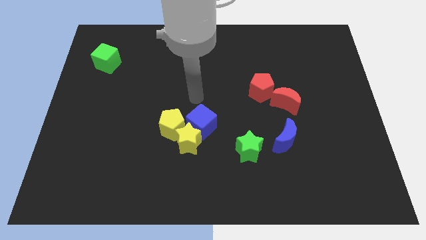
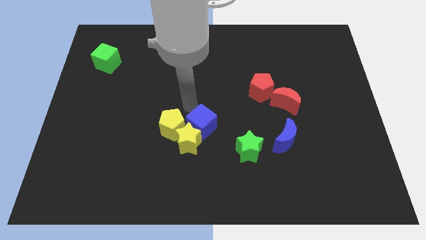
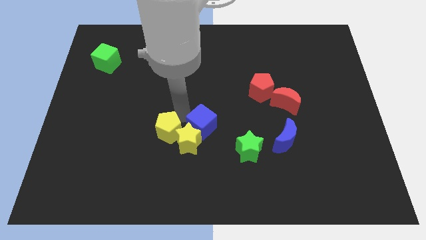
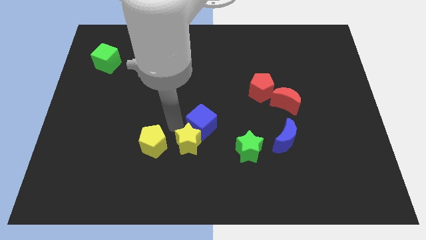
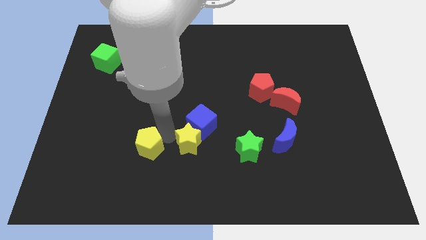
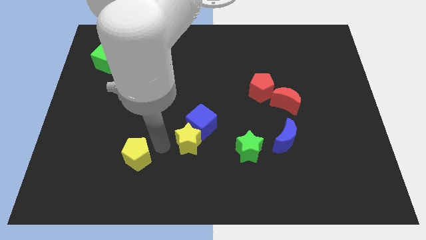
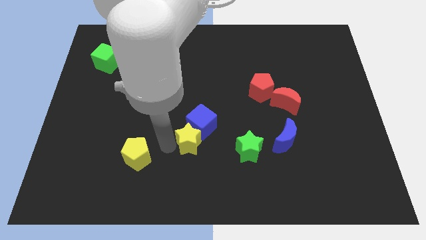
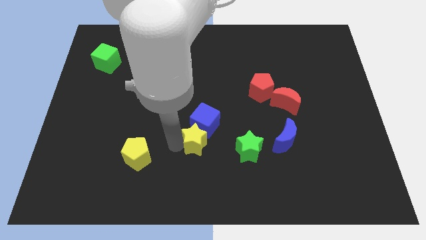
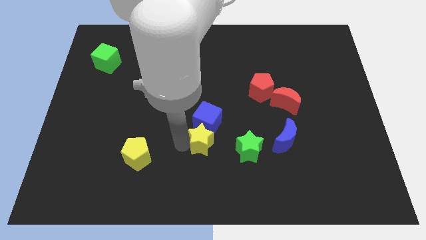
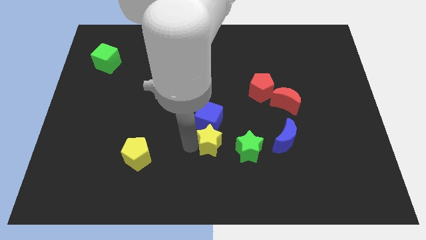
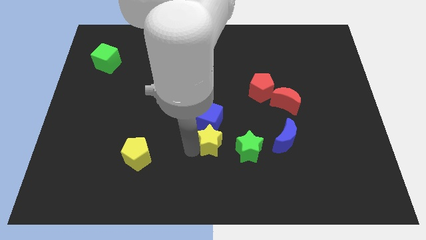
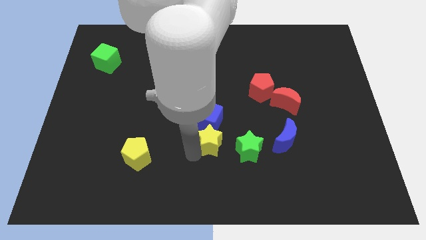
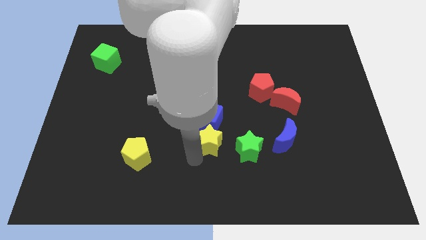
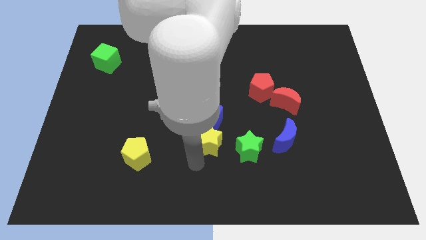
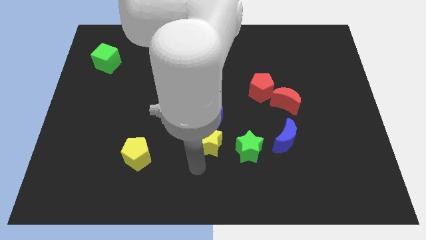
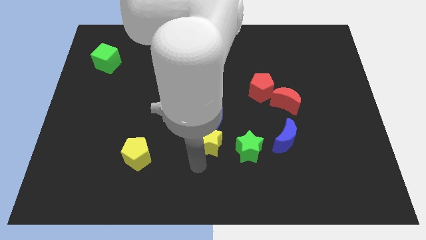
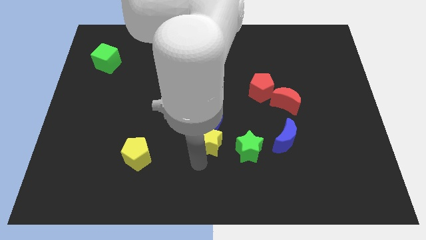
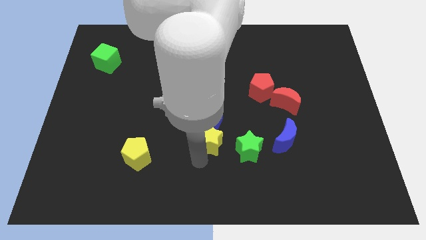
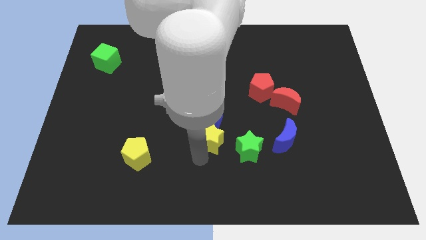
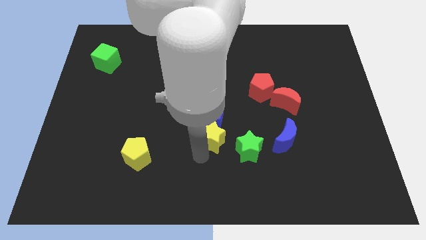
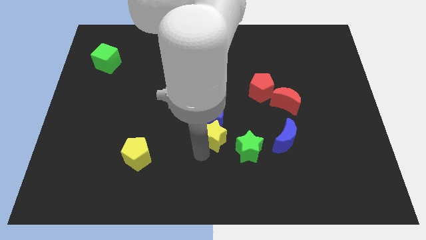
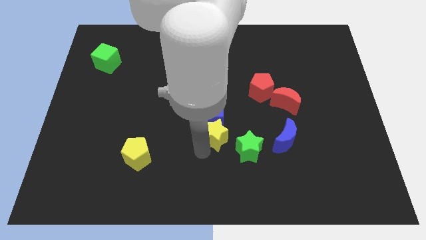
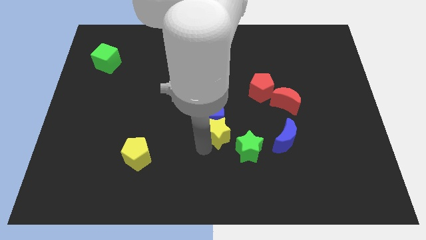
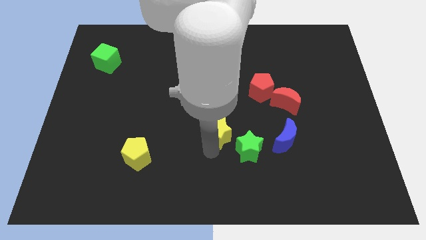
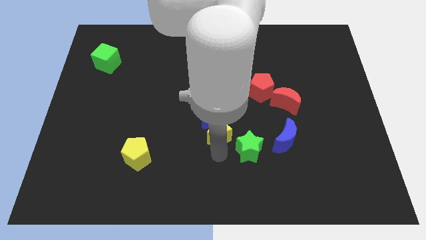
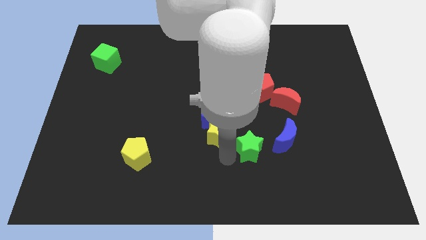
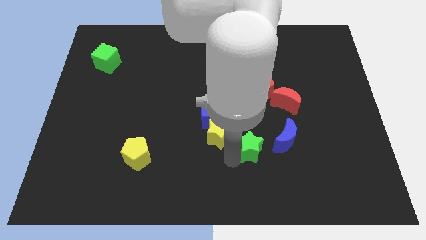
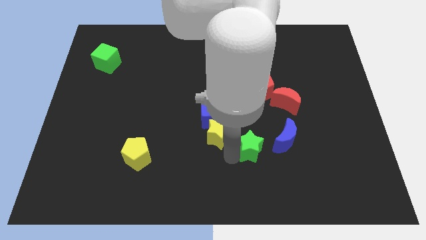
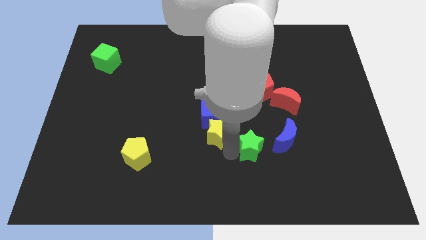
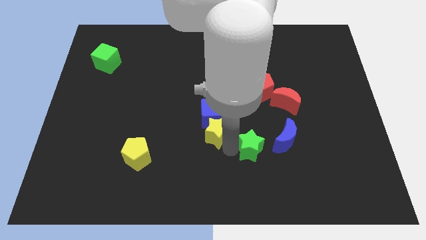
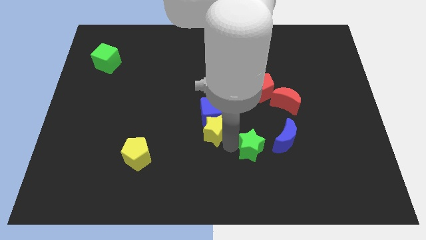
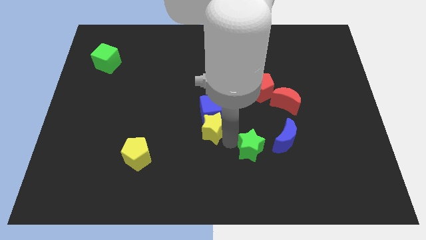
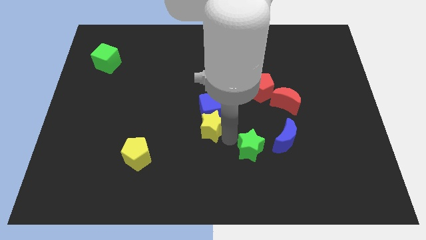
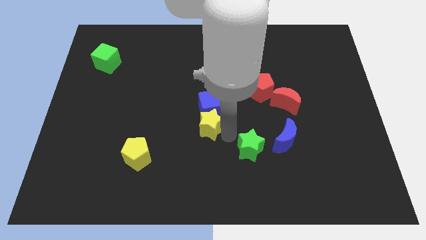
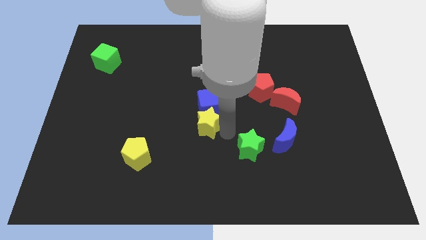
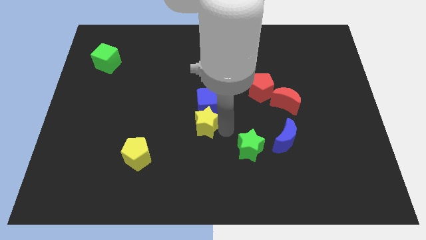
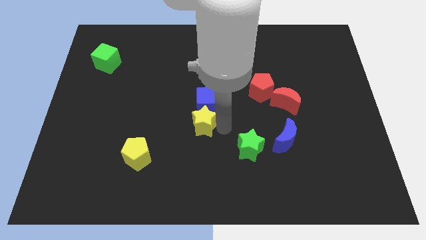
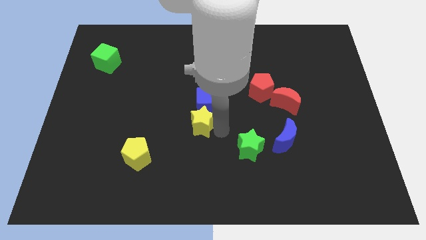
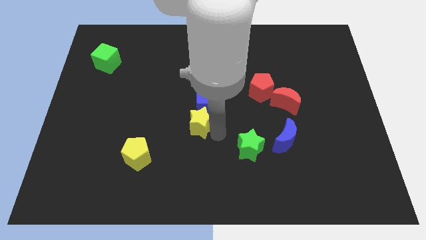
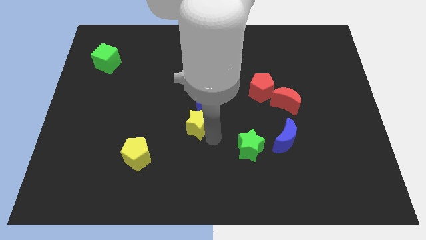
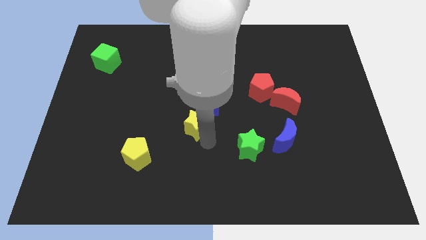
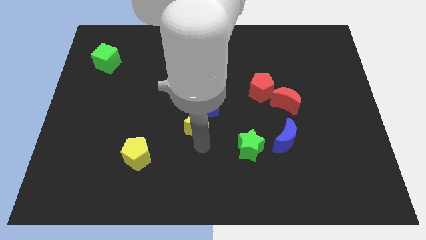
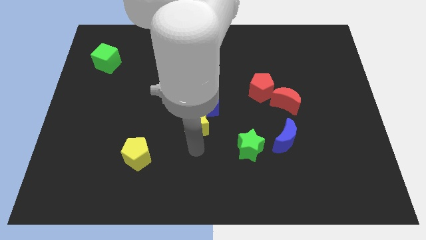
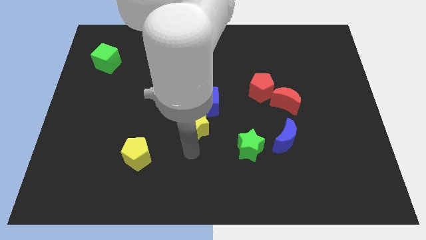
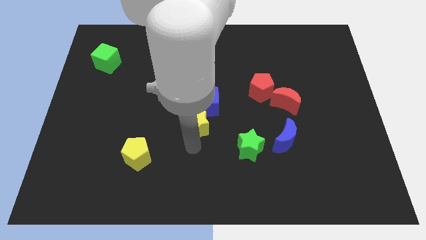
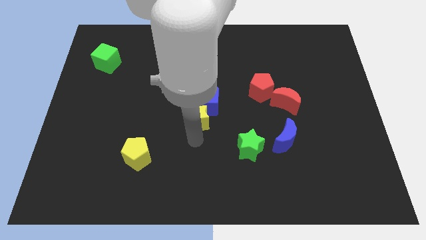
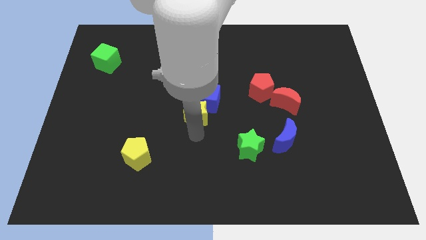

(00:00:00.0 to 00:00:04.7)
move the yellow star slightly up

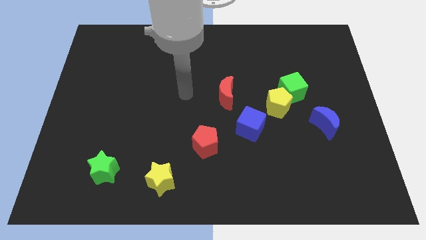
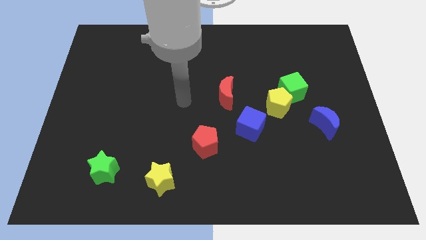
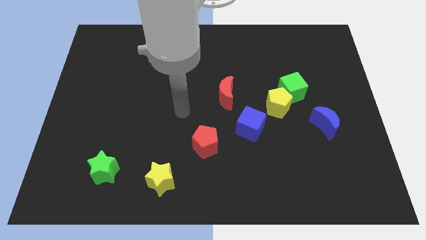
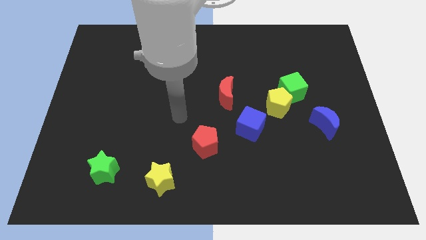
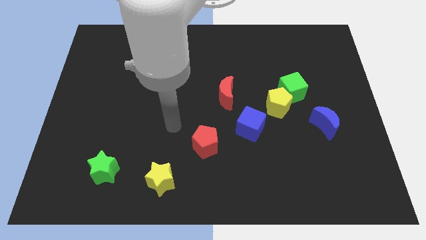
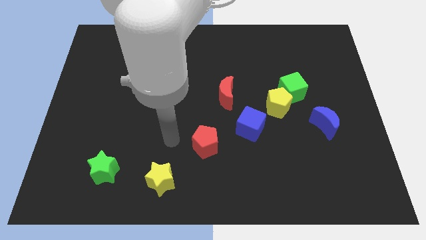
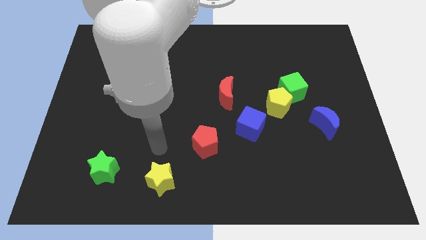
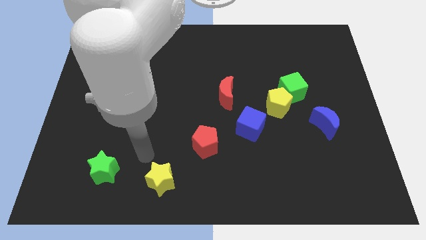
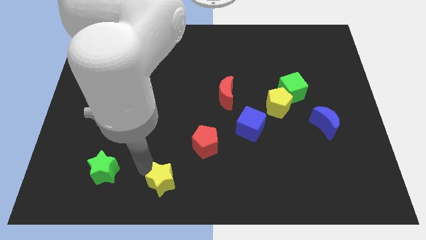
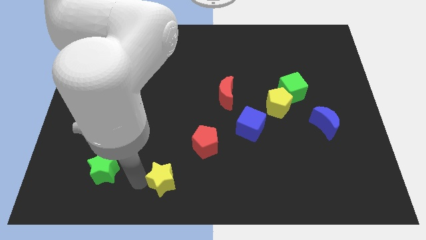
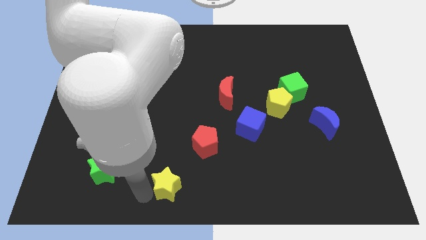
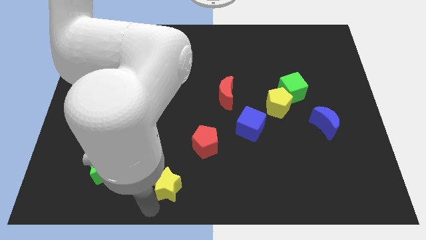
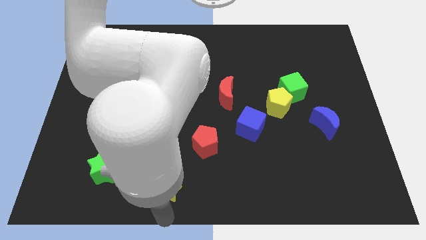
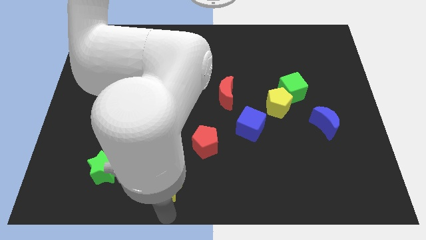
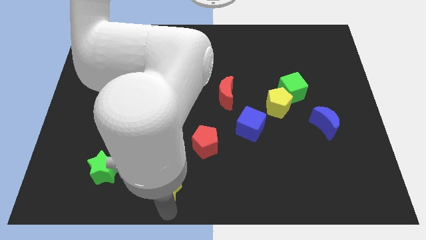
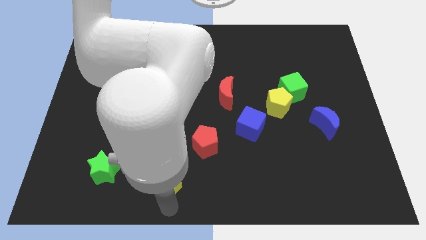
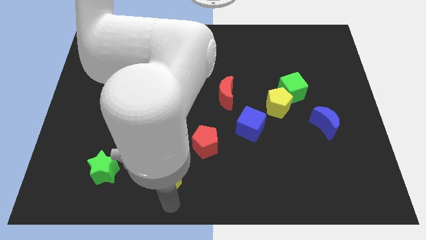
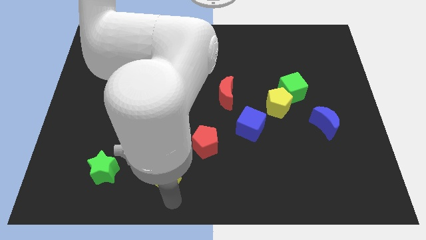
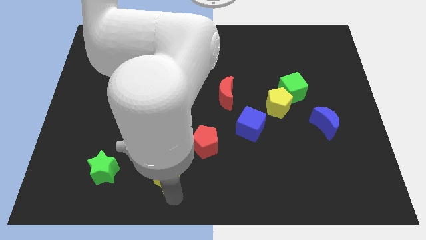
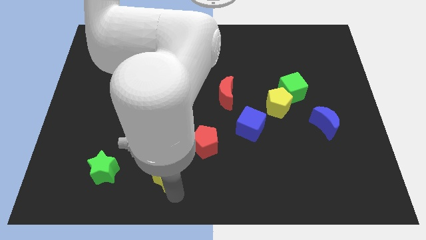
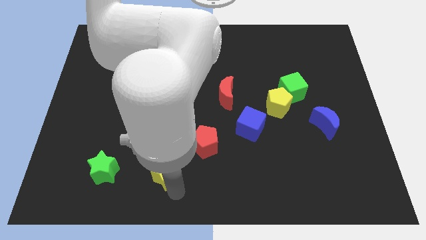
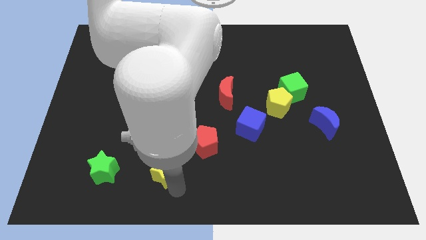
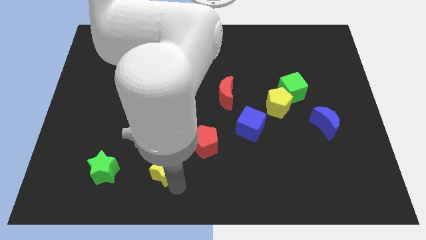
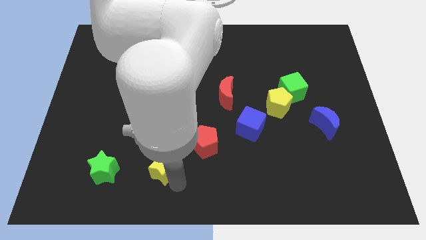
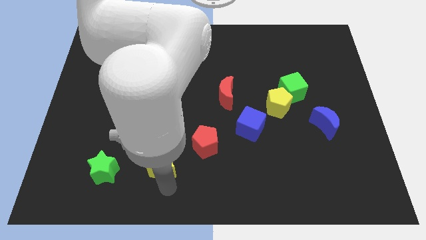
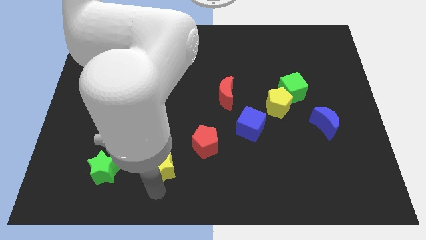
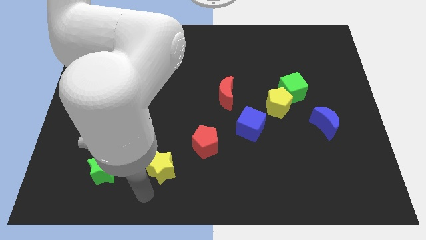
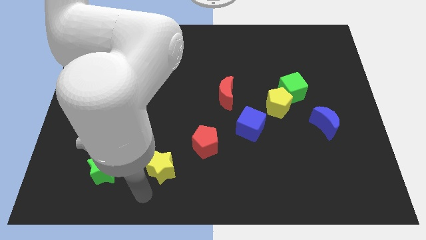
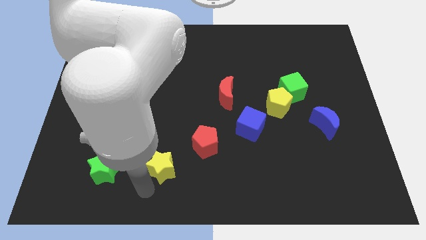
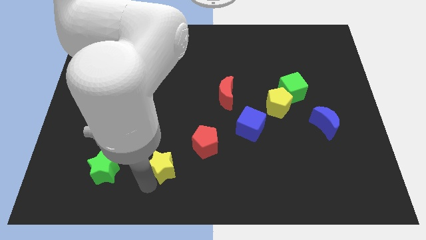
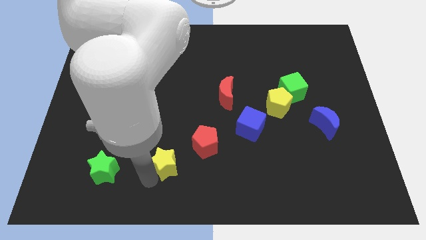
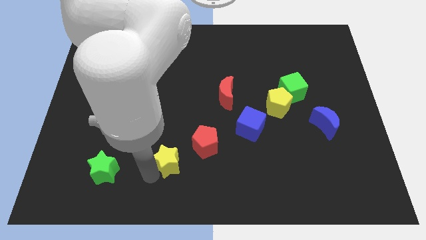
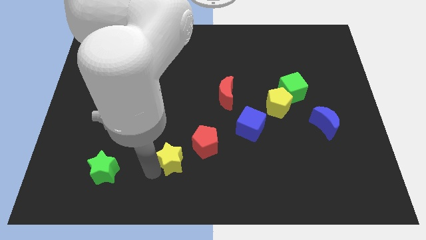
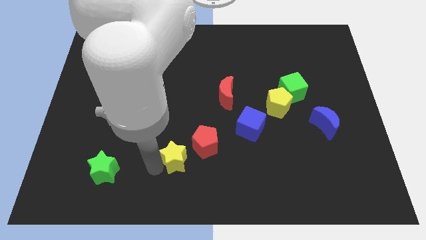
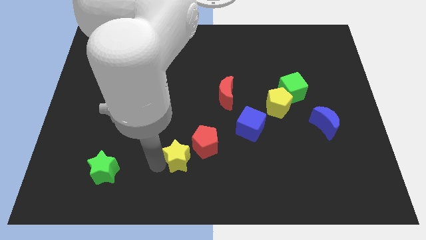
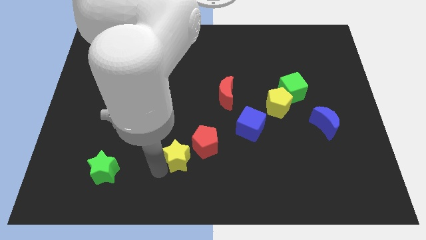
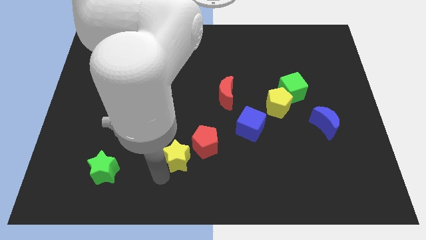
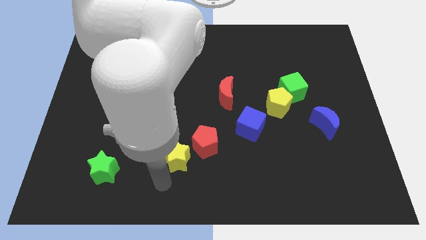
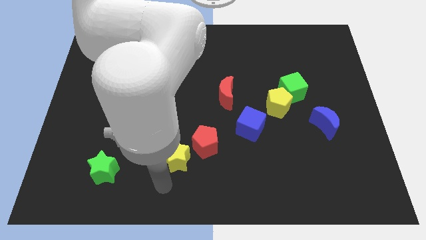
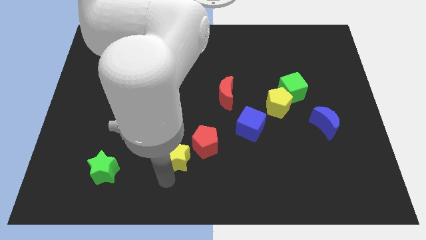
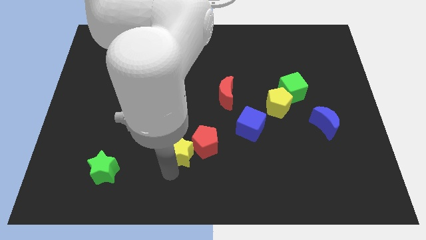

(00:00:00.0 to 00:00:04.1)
push the yellow star up and to the right diagonally a bit
